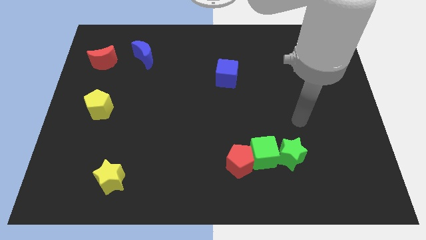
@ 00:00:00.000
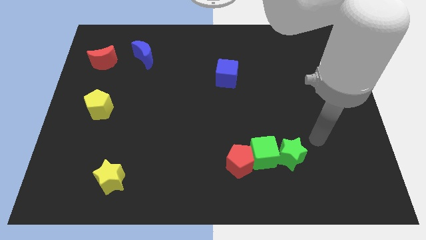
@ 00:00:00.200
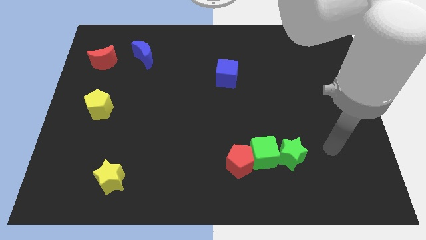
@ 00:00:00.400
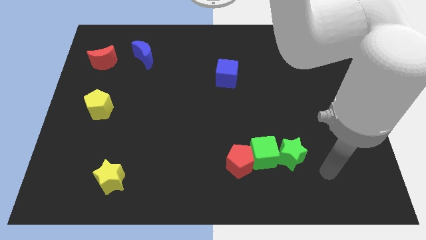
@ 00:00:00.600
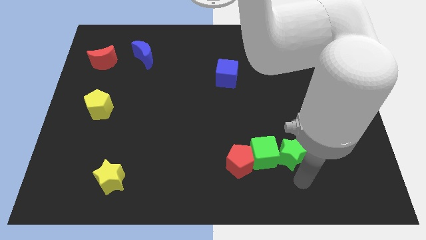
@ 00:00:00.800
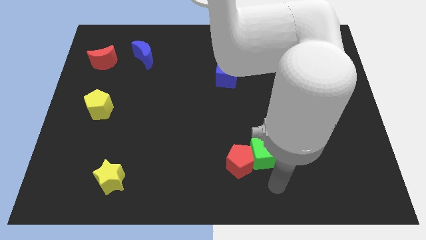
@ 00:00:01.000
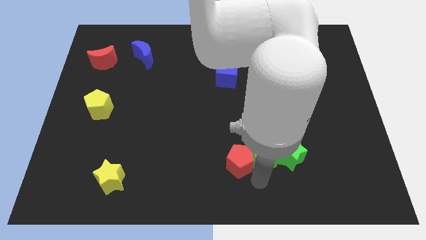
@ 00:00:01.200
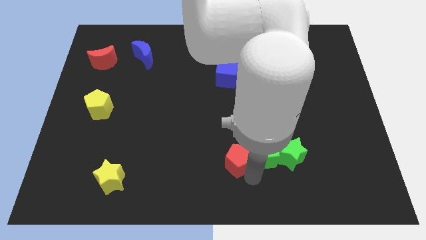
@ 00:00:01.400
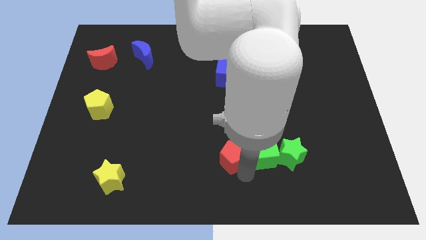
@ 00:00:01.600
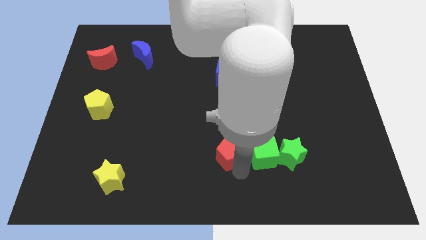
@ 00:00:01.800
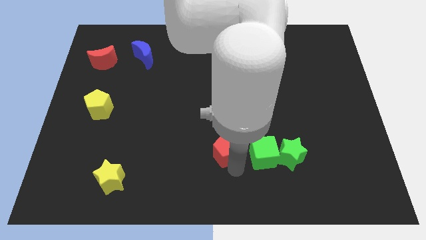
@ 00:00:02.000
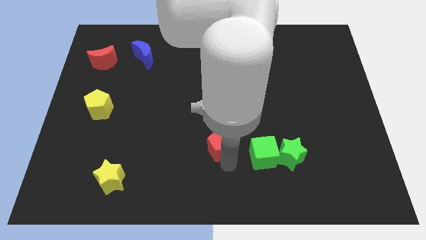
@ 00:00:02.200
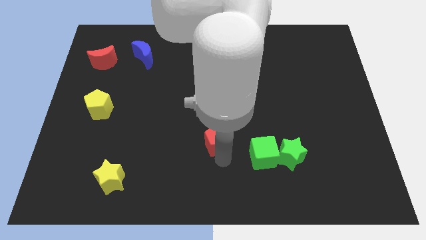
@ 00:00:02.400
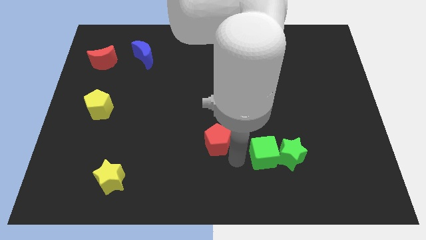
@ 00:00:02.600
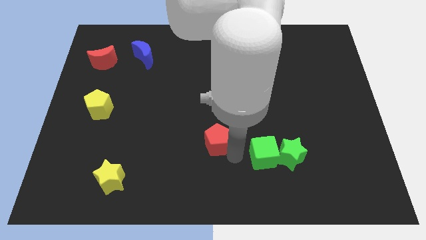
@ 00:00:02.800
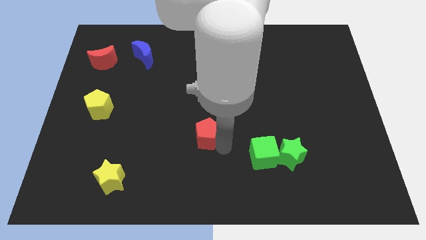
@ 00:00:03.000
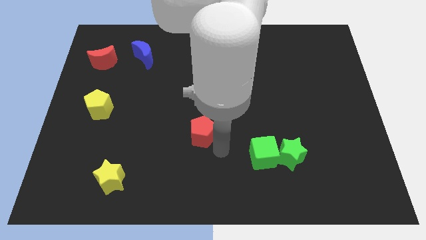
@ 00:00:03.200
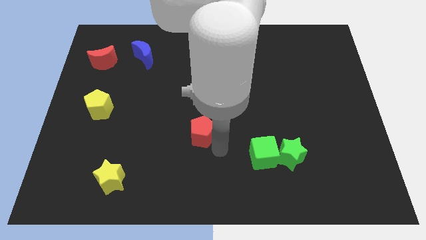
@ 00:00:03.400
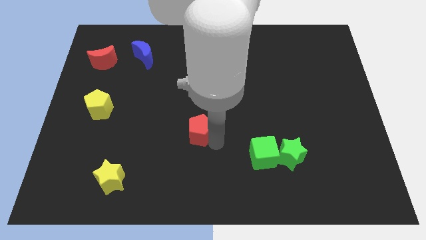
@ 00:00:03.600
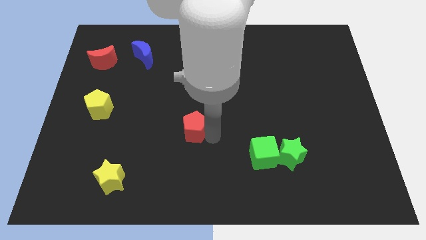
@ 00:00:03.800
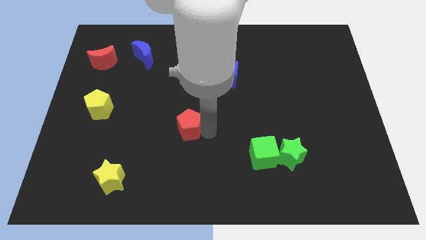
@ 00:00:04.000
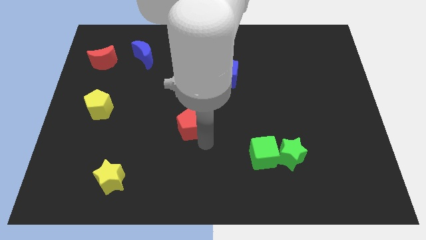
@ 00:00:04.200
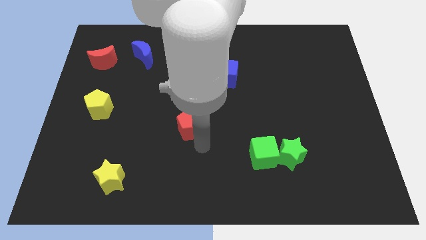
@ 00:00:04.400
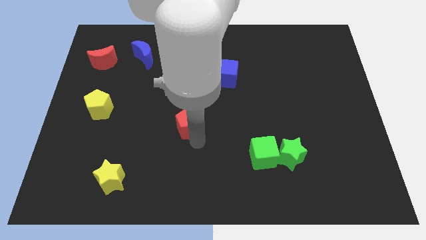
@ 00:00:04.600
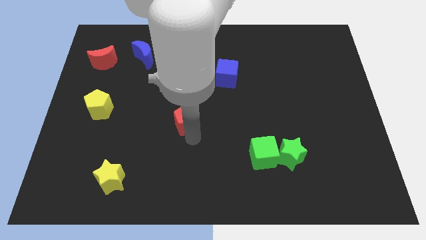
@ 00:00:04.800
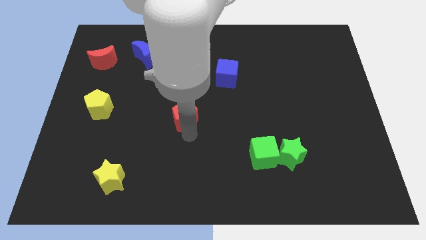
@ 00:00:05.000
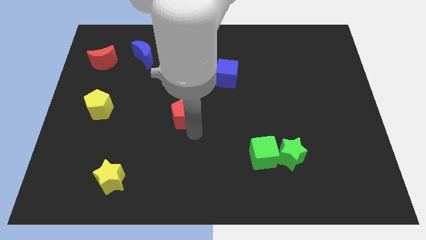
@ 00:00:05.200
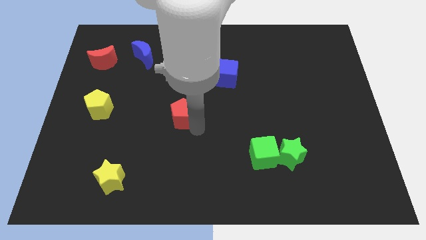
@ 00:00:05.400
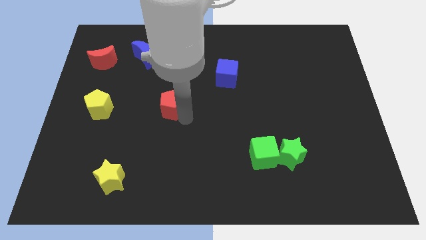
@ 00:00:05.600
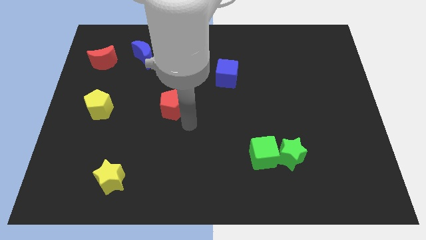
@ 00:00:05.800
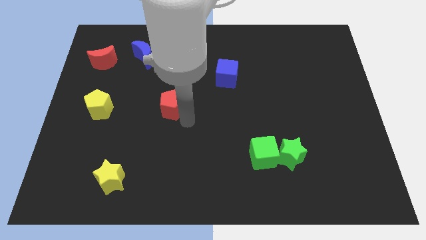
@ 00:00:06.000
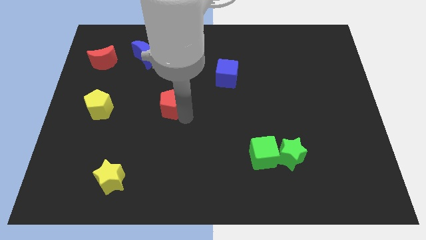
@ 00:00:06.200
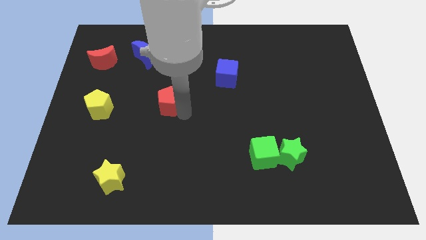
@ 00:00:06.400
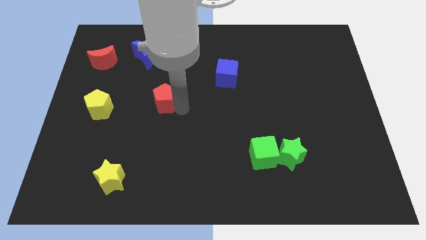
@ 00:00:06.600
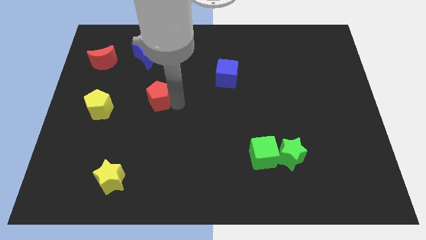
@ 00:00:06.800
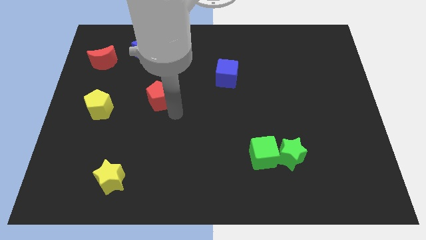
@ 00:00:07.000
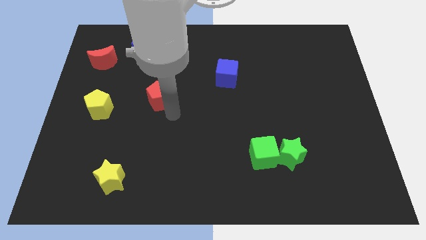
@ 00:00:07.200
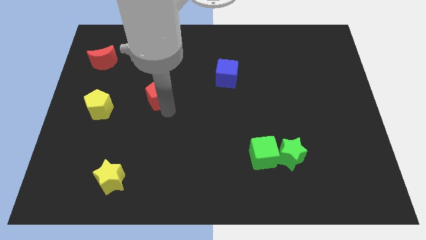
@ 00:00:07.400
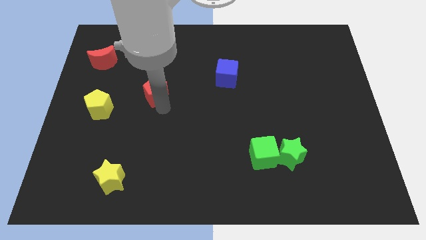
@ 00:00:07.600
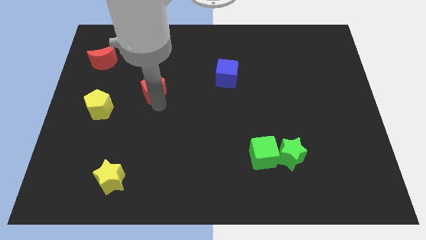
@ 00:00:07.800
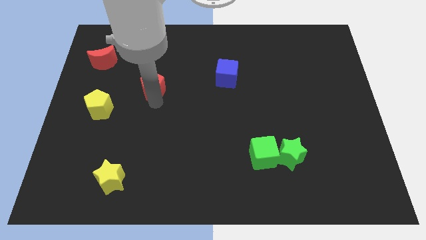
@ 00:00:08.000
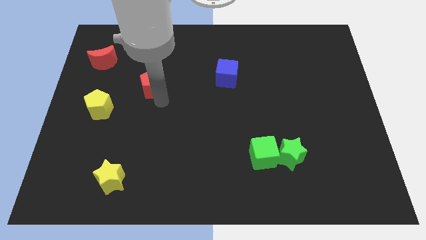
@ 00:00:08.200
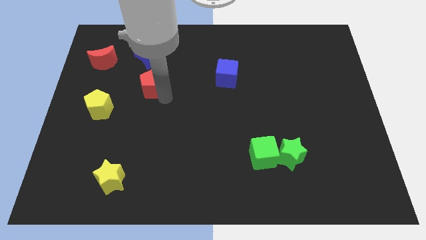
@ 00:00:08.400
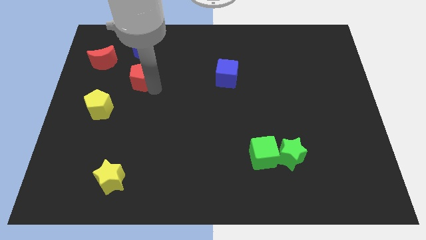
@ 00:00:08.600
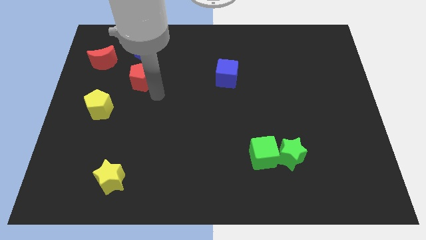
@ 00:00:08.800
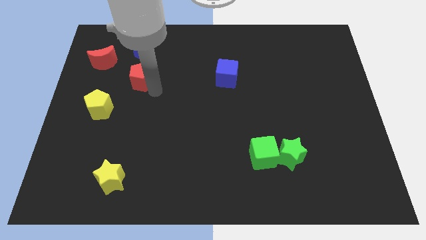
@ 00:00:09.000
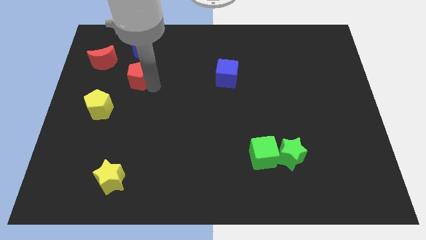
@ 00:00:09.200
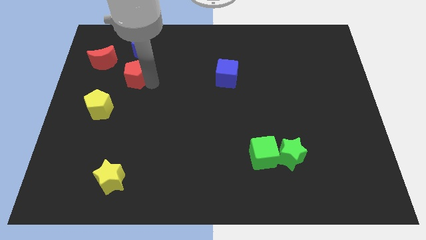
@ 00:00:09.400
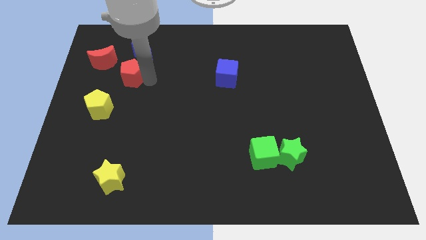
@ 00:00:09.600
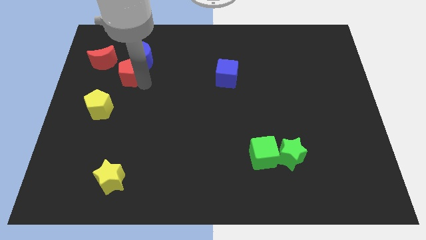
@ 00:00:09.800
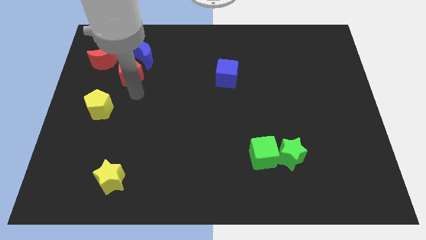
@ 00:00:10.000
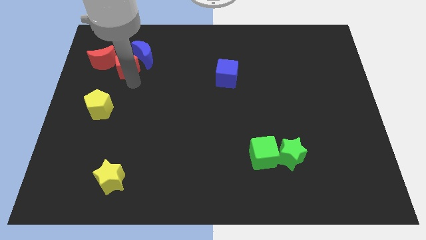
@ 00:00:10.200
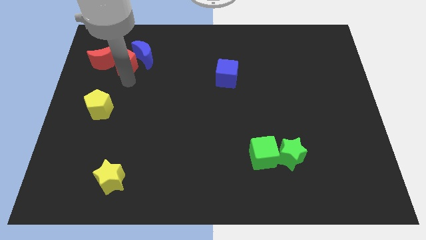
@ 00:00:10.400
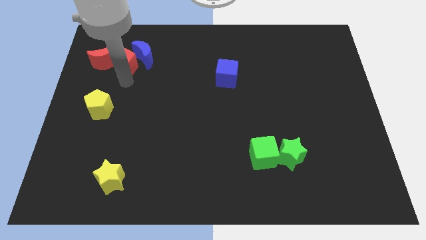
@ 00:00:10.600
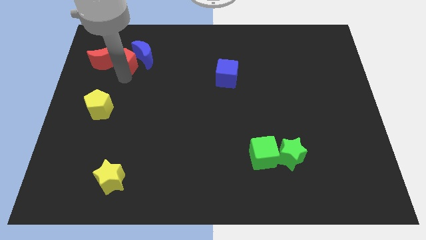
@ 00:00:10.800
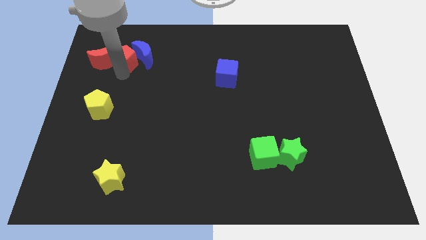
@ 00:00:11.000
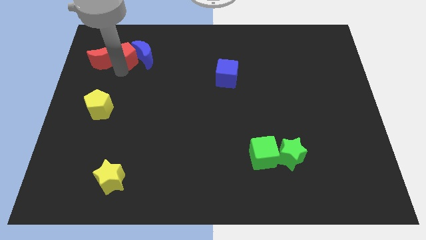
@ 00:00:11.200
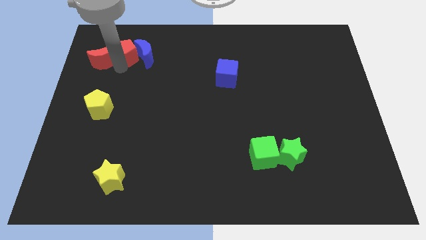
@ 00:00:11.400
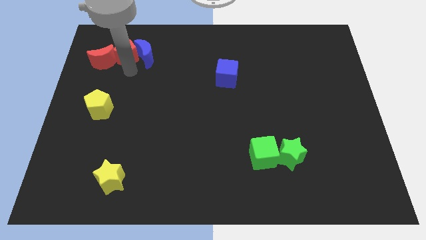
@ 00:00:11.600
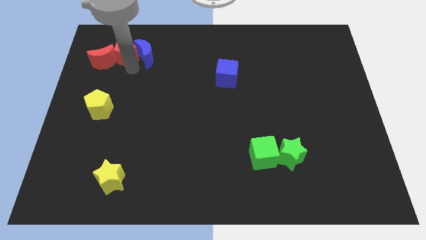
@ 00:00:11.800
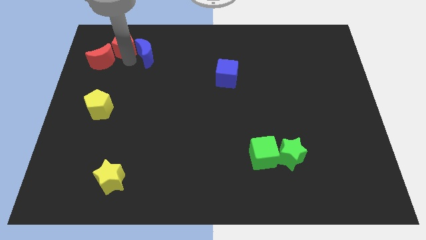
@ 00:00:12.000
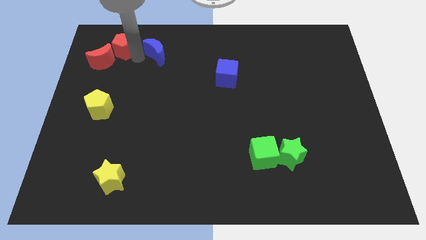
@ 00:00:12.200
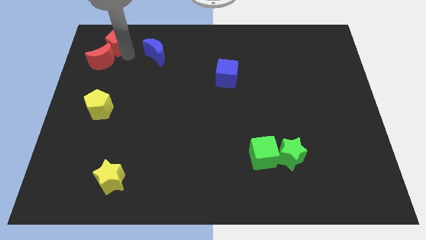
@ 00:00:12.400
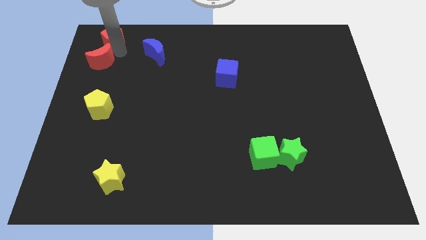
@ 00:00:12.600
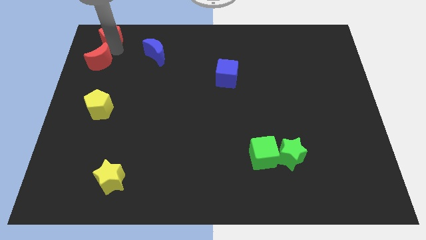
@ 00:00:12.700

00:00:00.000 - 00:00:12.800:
push the red pentagon to the upper left corner
